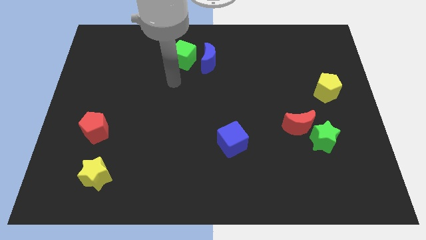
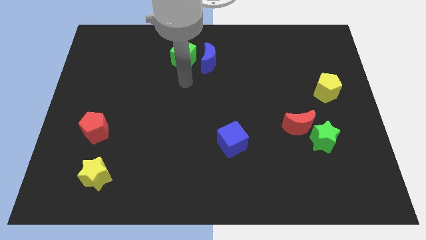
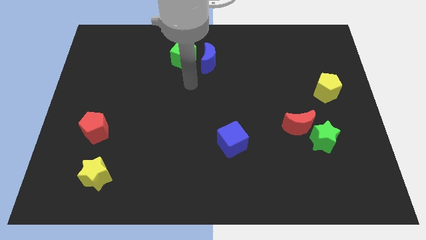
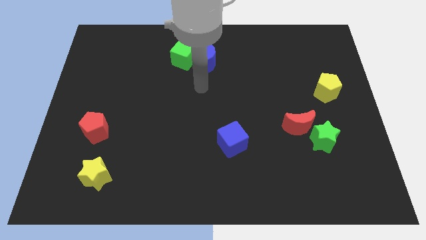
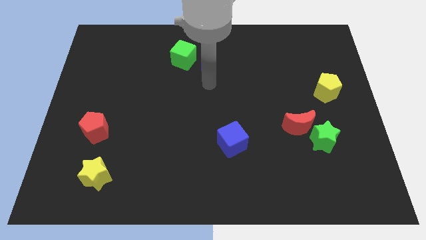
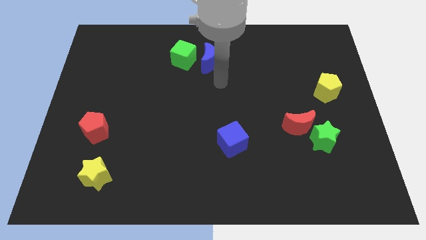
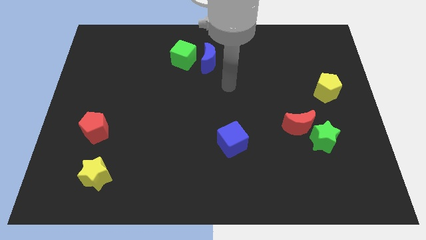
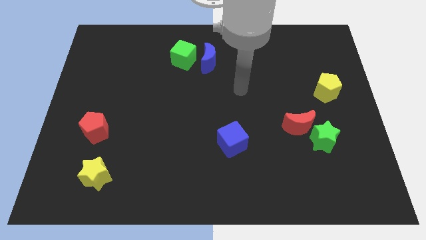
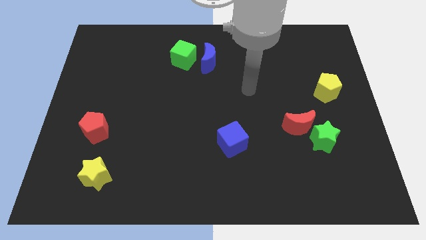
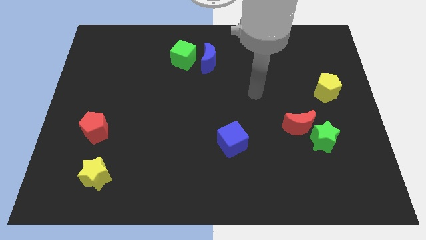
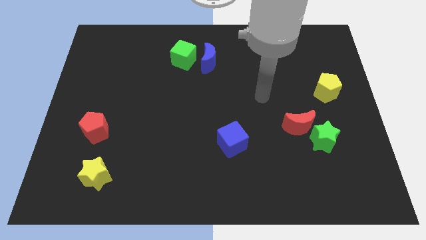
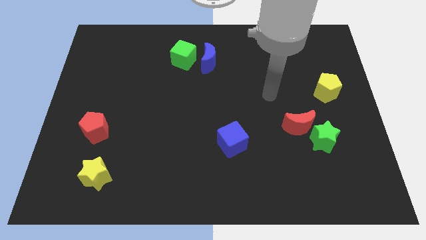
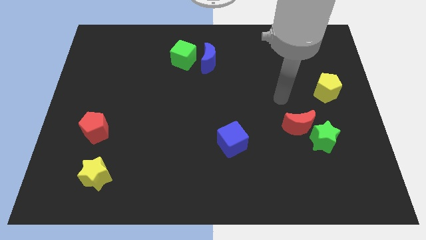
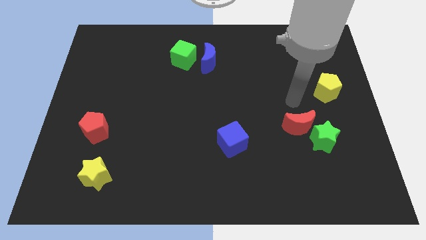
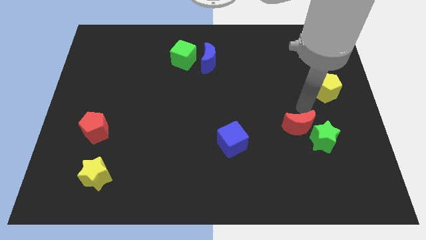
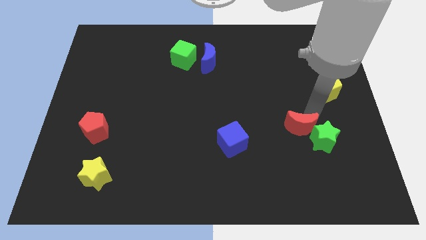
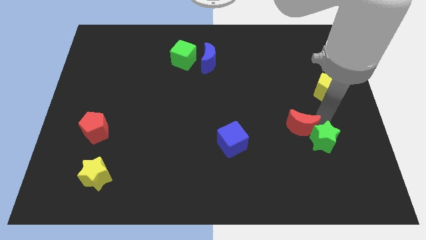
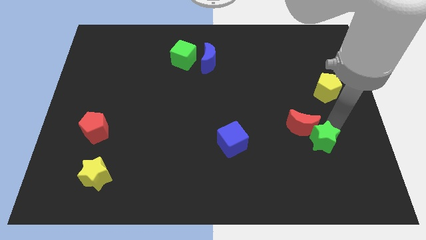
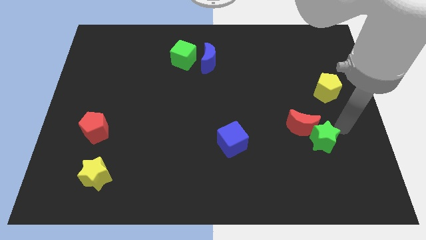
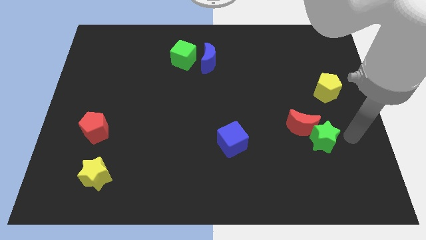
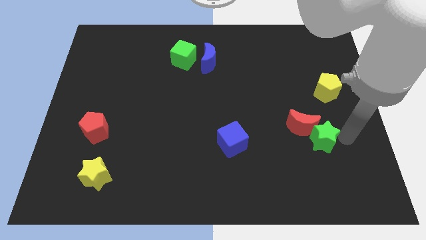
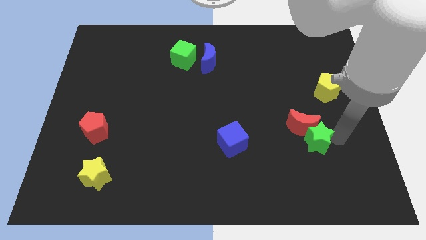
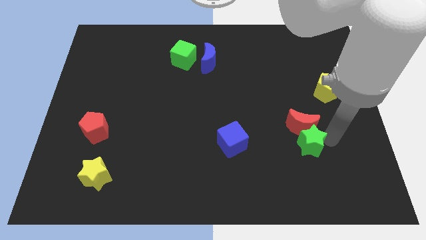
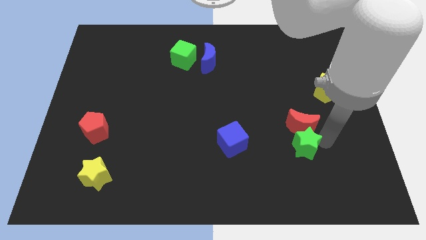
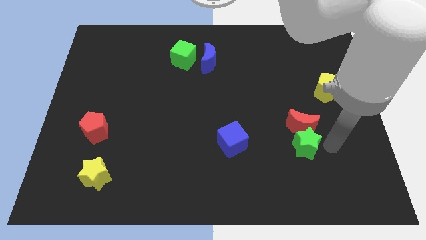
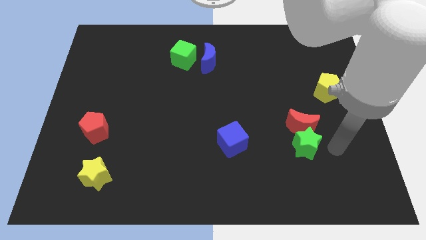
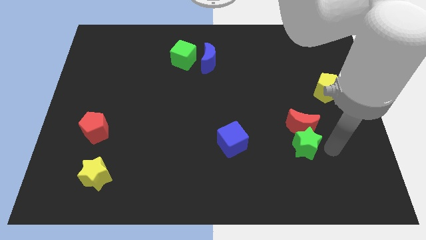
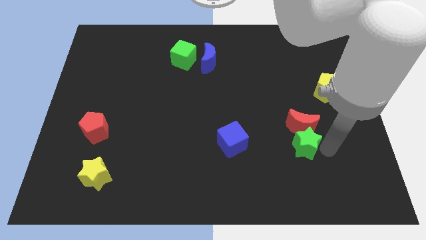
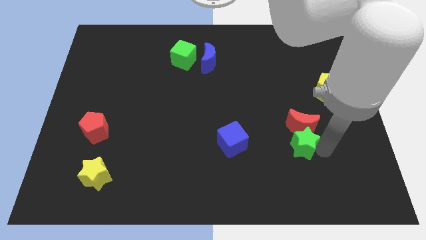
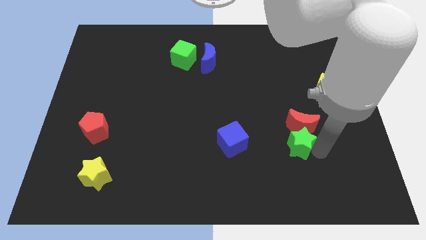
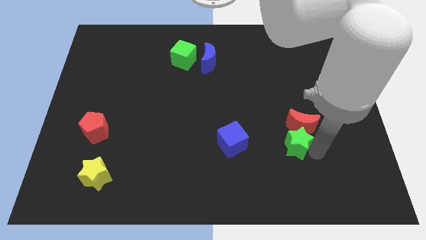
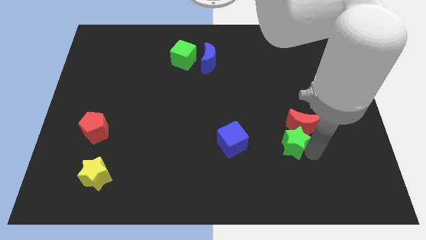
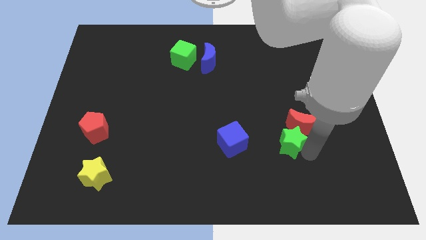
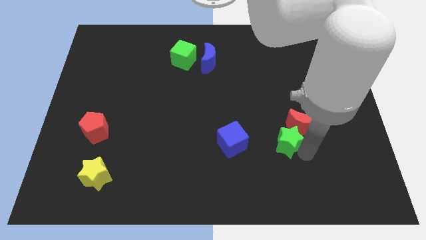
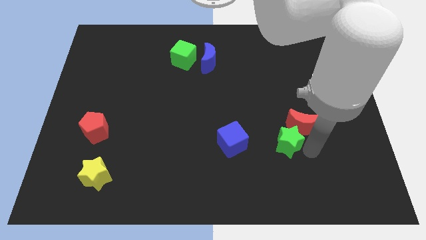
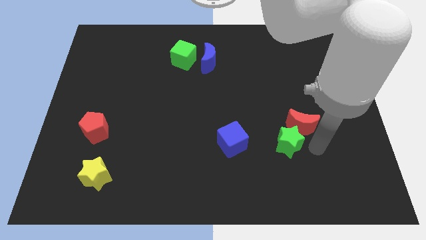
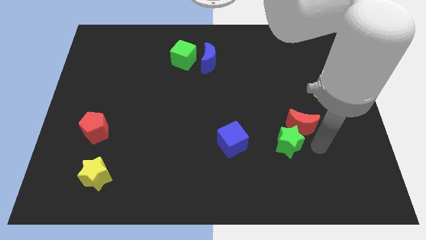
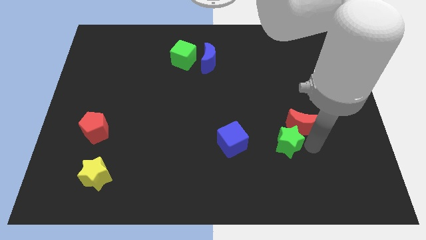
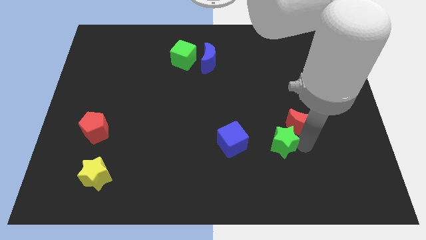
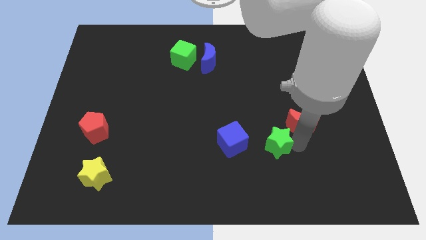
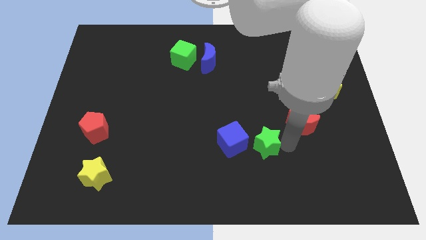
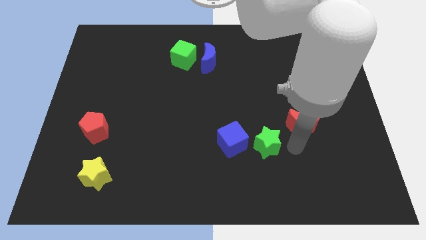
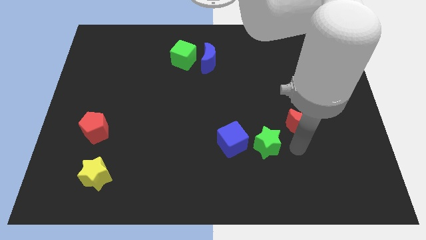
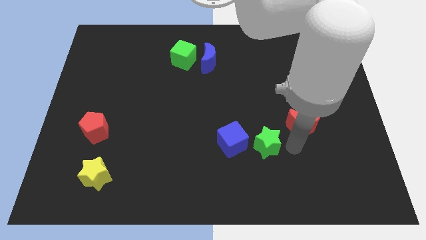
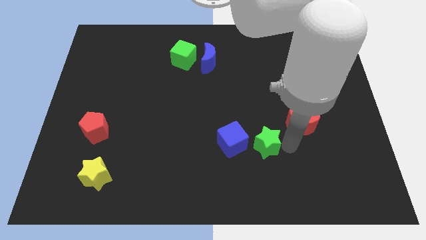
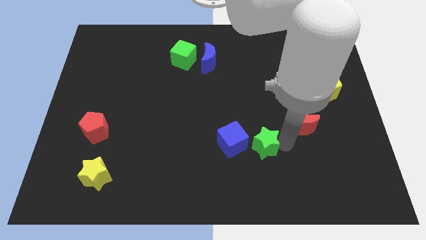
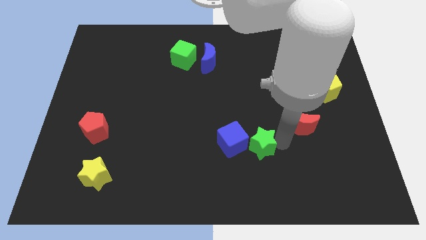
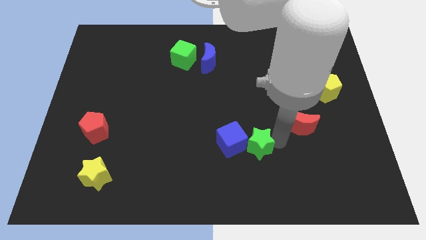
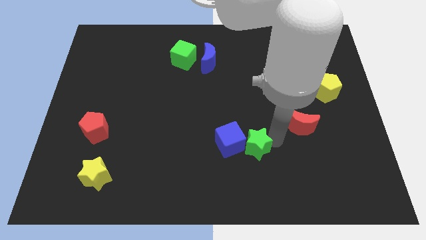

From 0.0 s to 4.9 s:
put the green star to the blue cube

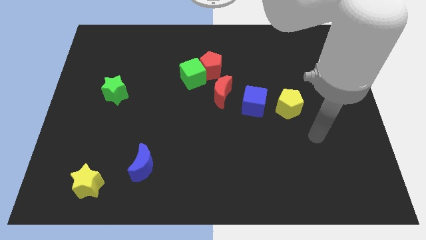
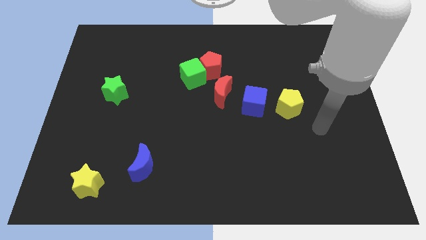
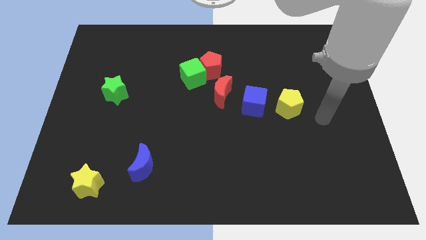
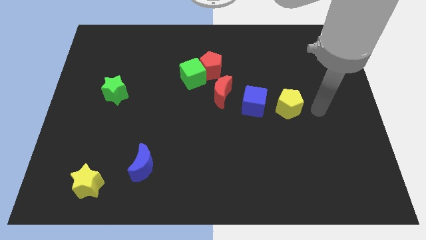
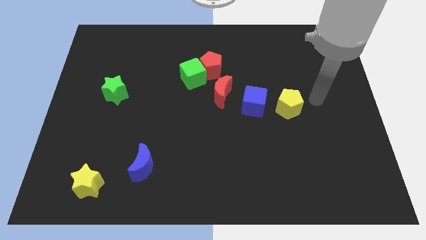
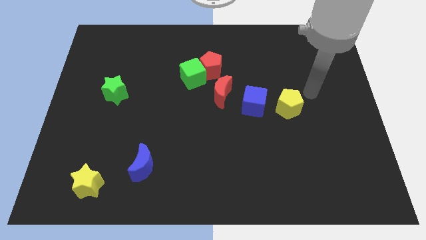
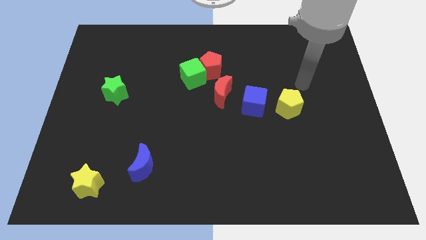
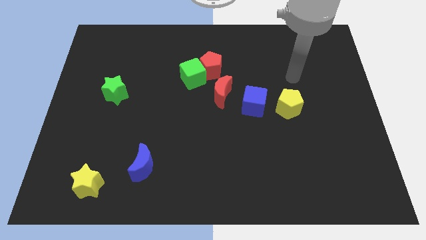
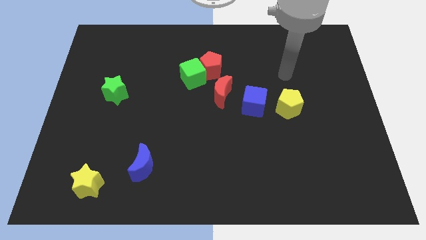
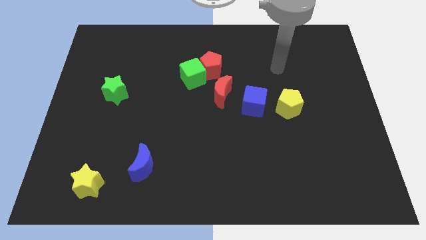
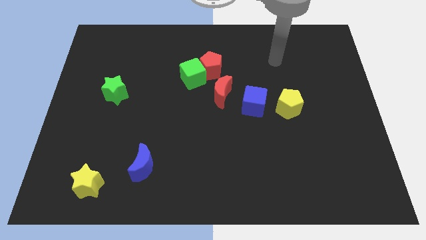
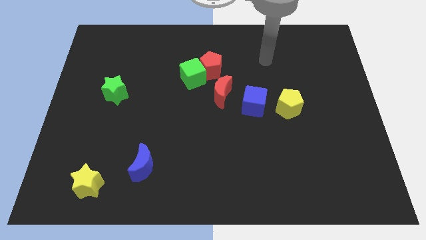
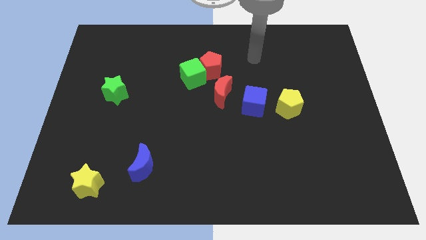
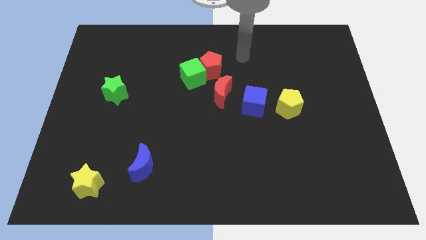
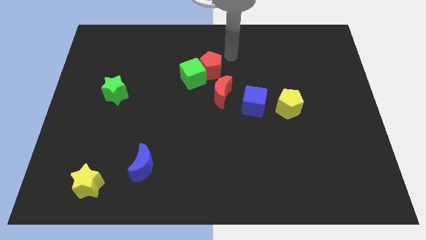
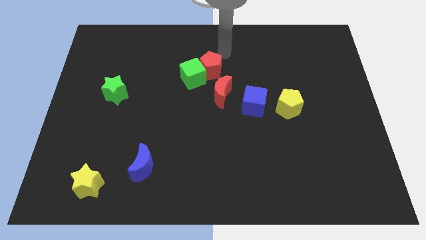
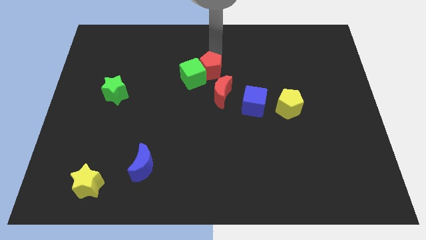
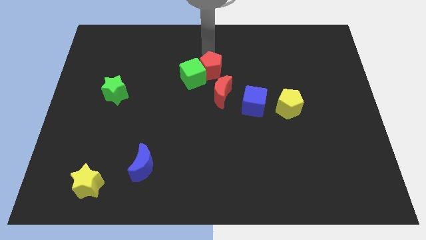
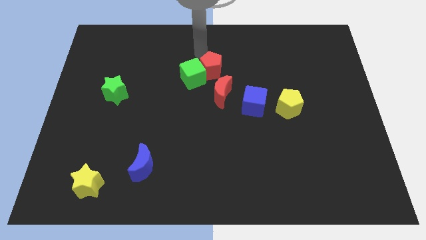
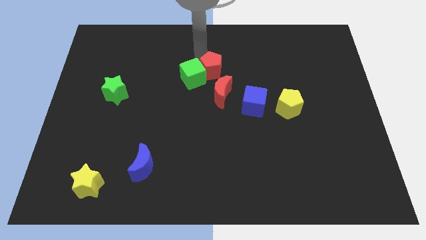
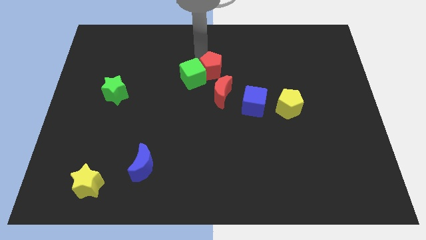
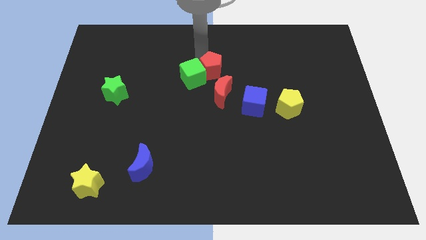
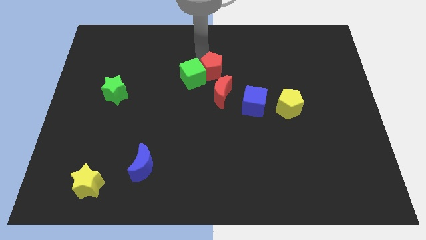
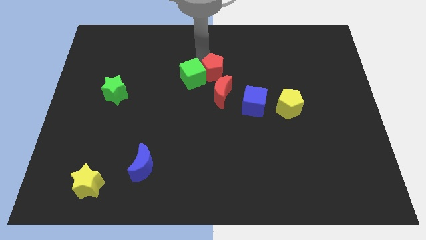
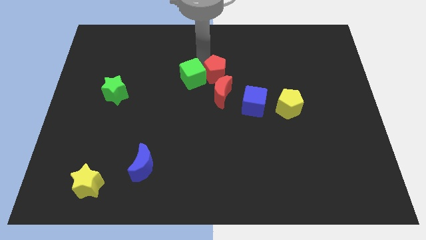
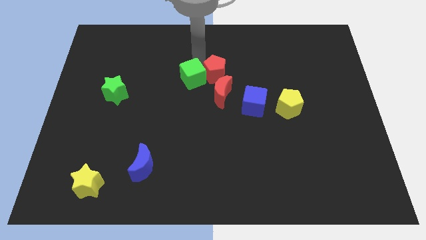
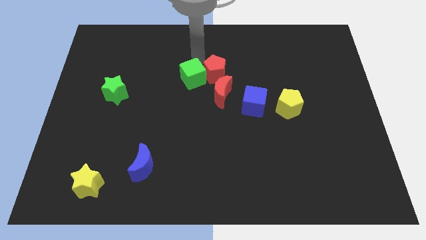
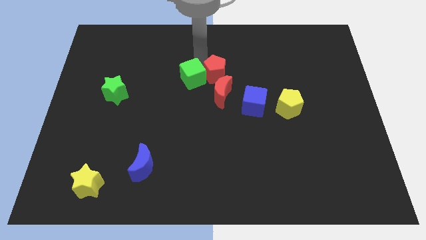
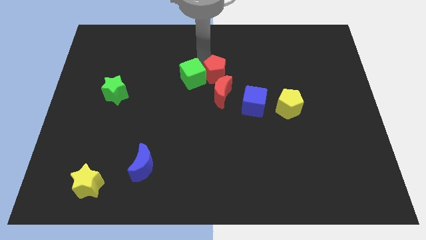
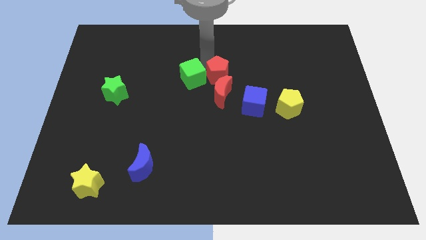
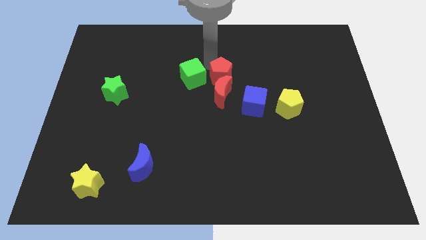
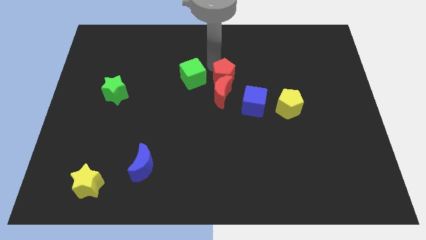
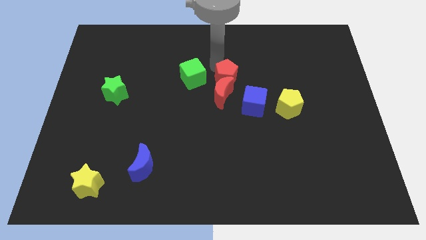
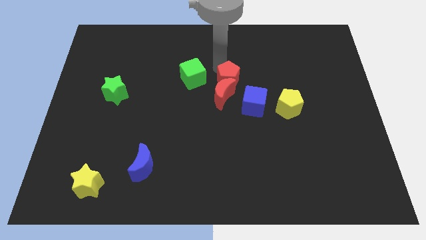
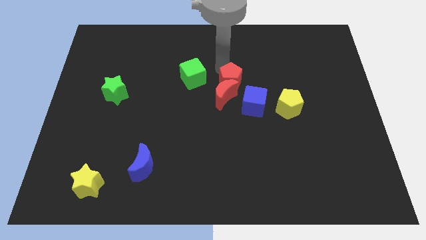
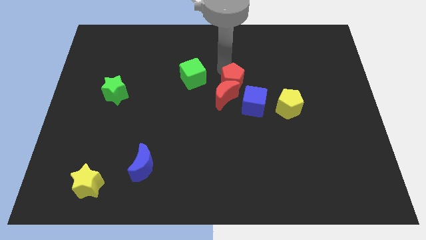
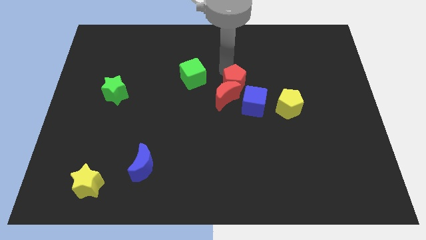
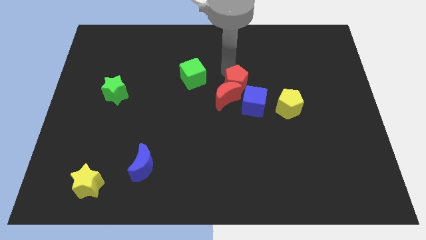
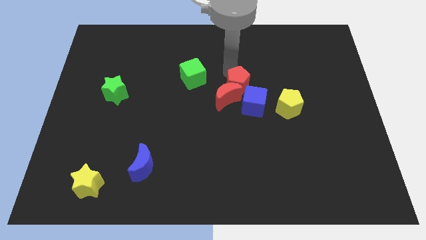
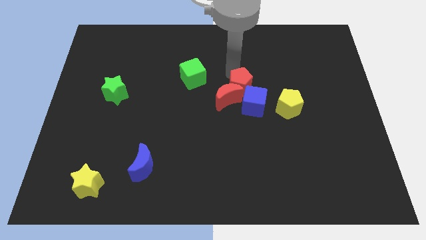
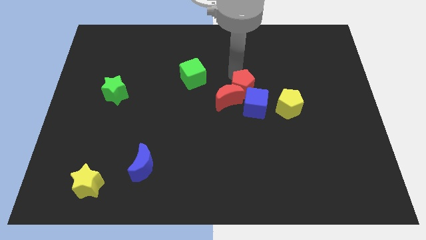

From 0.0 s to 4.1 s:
slide the red pentagon next to the blue cube
